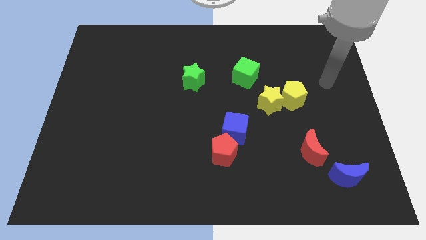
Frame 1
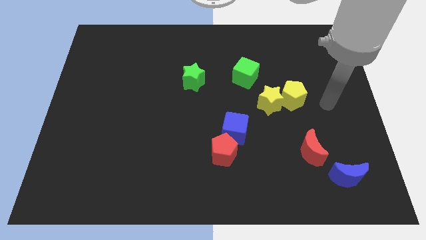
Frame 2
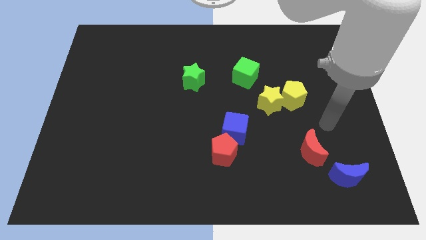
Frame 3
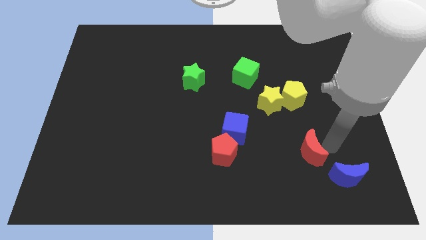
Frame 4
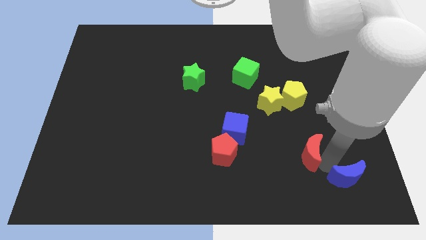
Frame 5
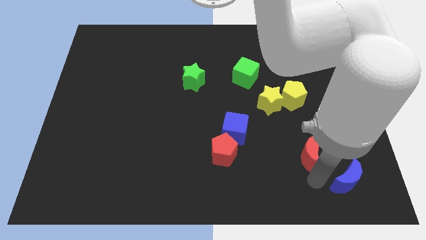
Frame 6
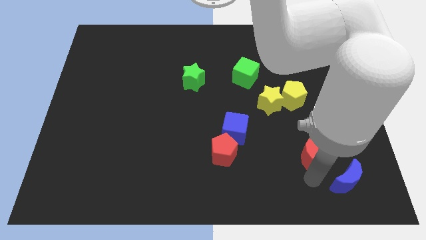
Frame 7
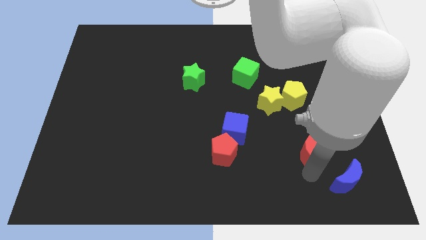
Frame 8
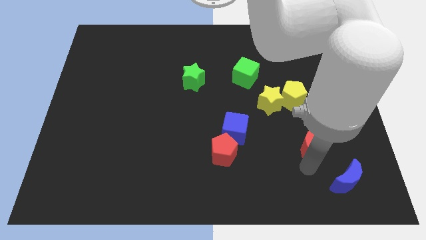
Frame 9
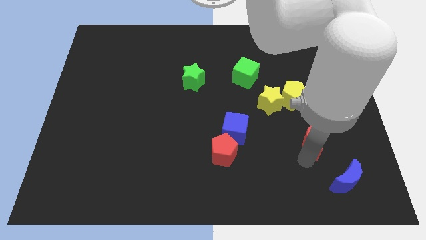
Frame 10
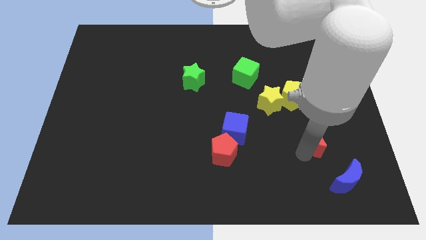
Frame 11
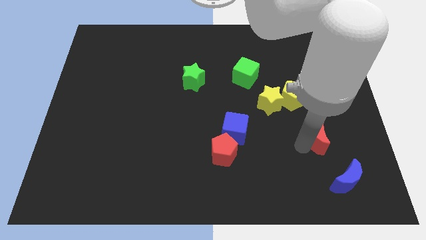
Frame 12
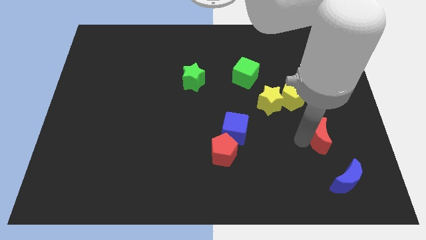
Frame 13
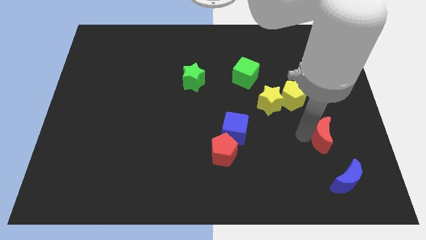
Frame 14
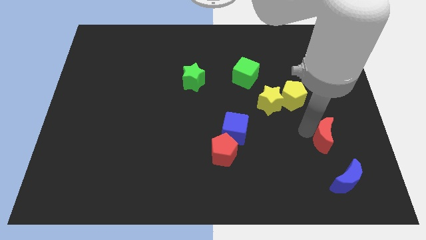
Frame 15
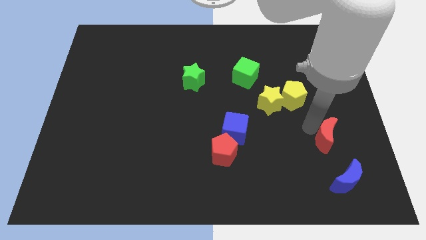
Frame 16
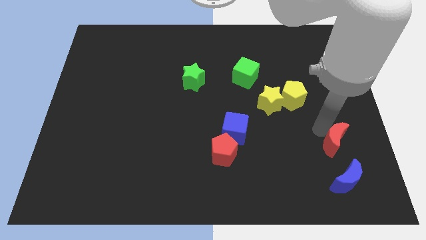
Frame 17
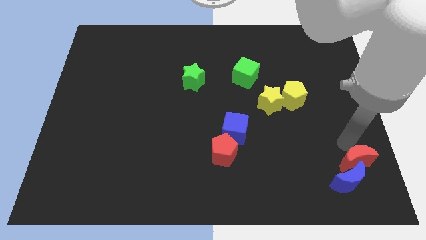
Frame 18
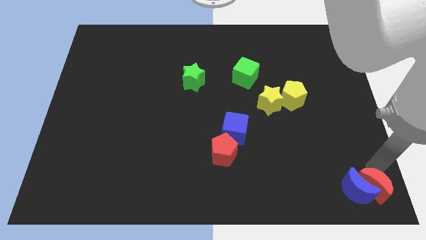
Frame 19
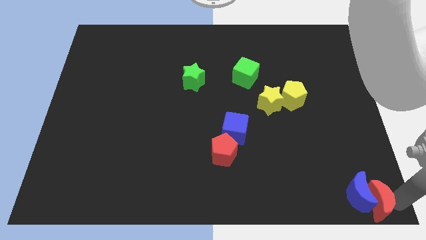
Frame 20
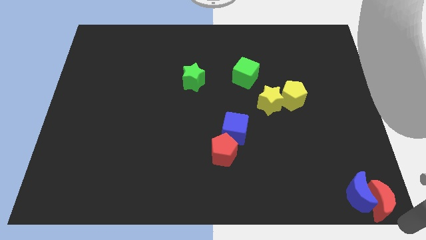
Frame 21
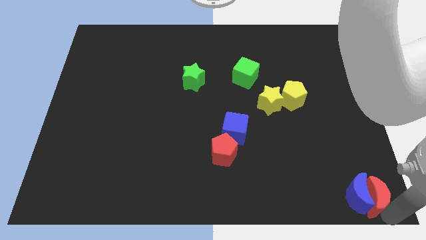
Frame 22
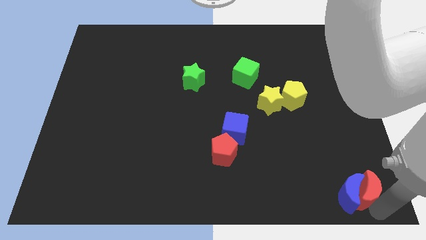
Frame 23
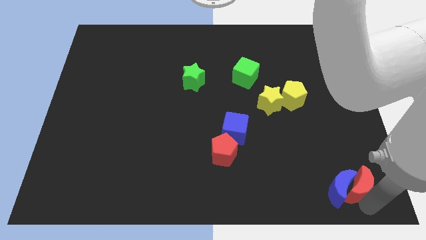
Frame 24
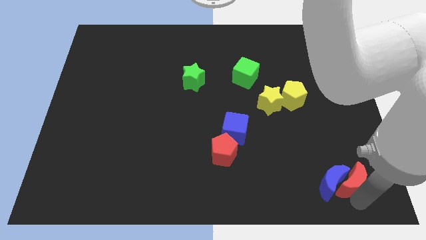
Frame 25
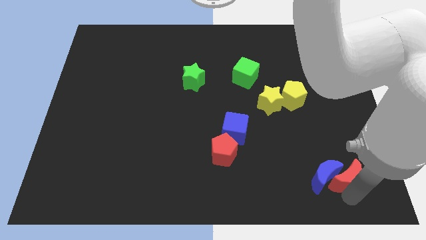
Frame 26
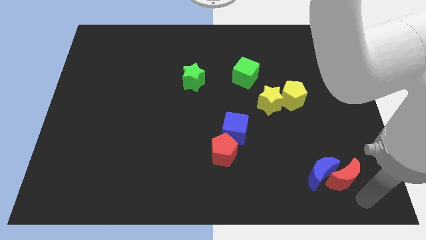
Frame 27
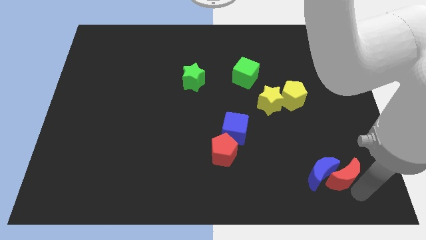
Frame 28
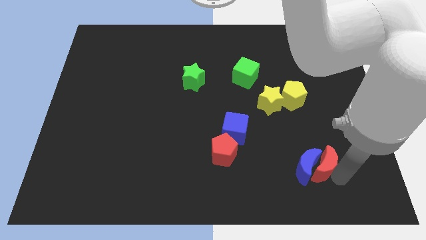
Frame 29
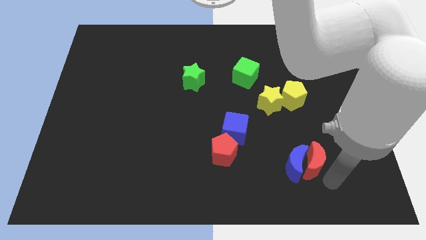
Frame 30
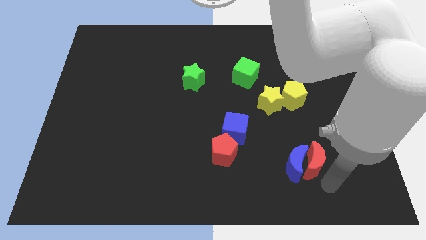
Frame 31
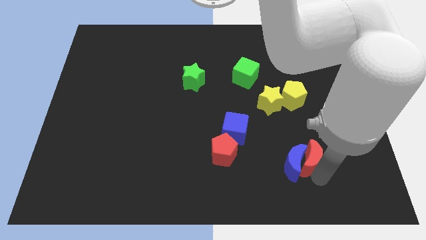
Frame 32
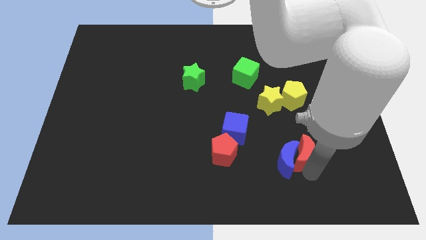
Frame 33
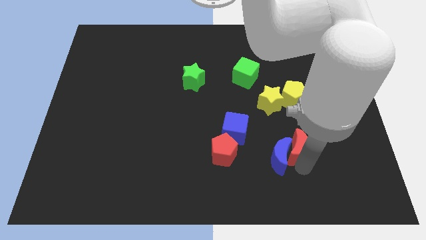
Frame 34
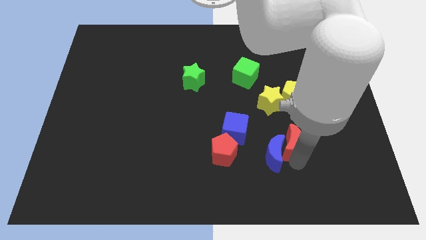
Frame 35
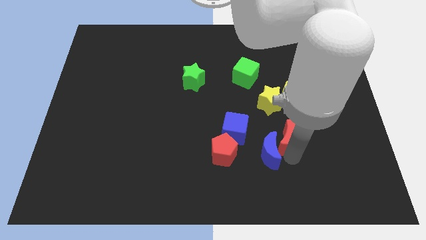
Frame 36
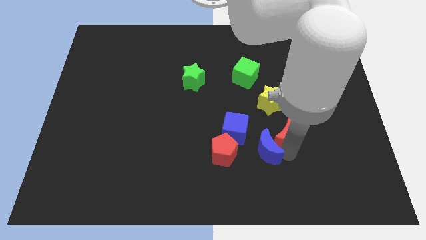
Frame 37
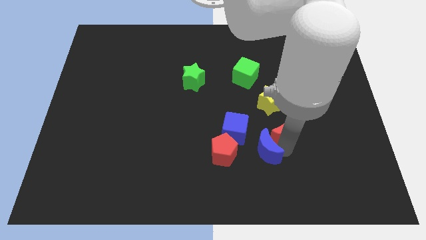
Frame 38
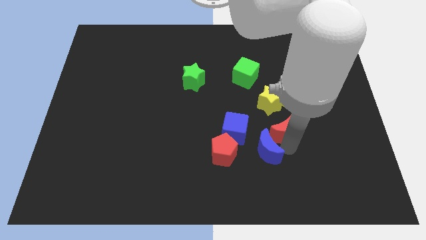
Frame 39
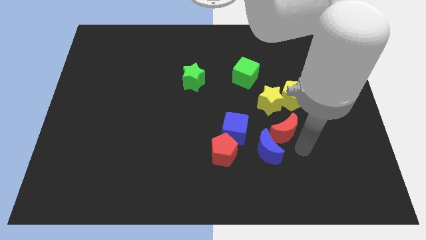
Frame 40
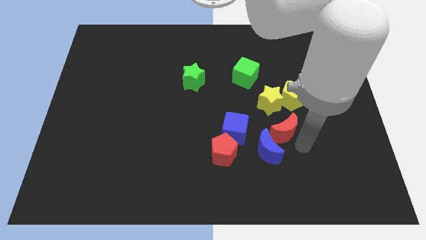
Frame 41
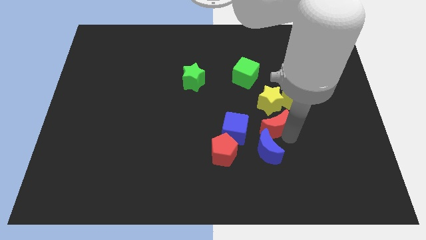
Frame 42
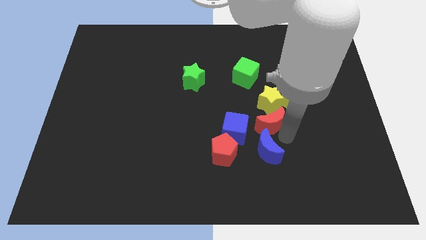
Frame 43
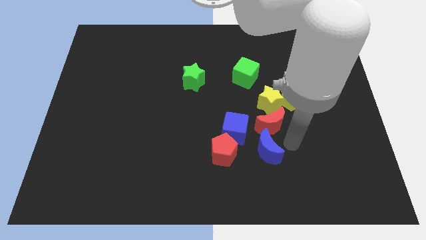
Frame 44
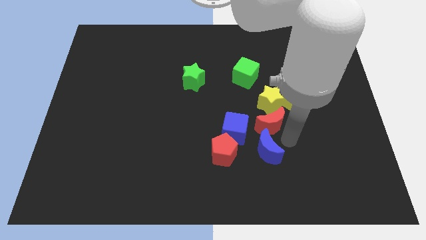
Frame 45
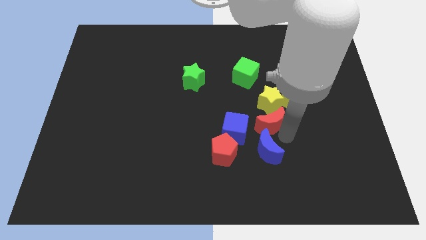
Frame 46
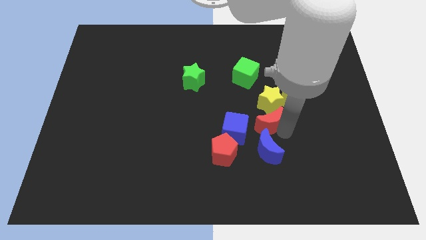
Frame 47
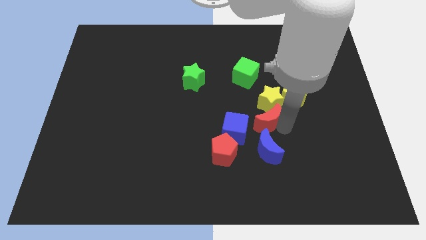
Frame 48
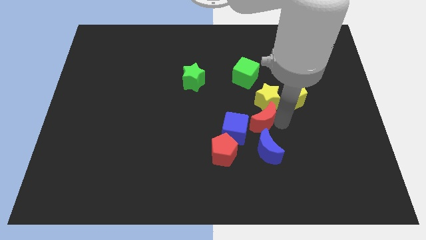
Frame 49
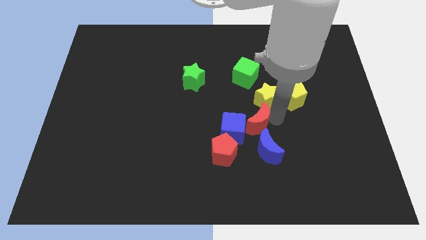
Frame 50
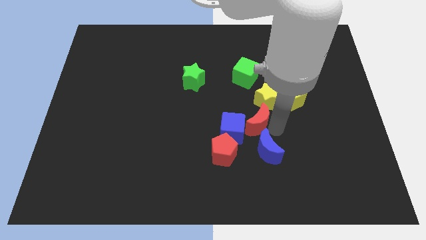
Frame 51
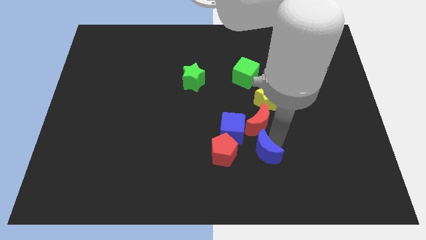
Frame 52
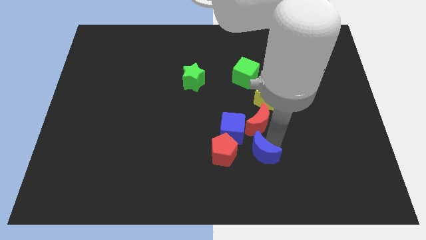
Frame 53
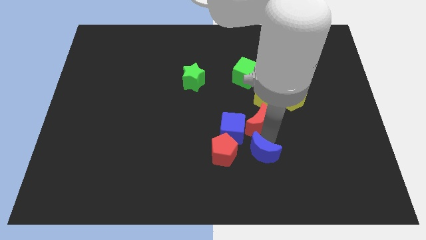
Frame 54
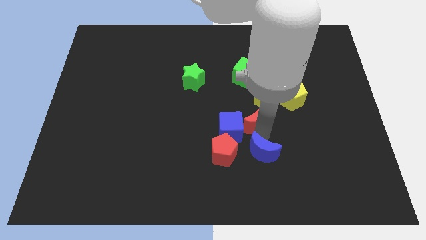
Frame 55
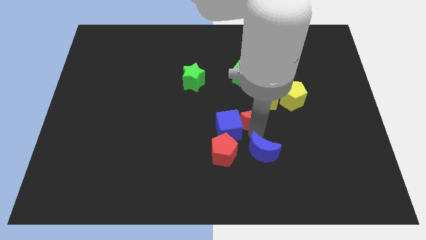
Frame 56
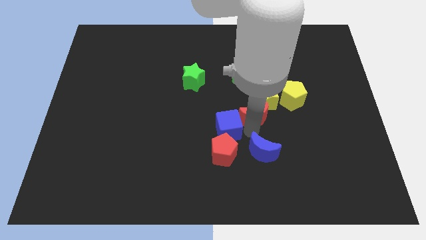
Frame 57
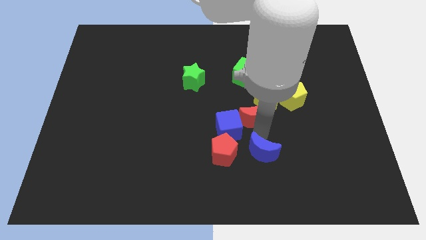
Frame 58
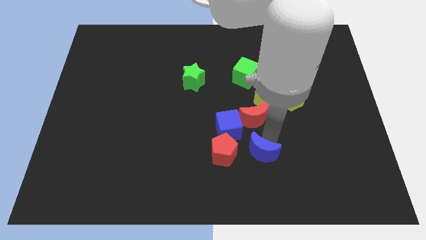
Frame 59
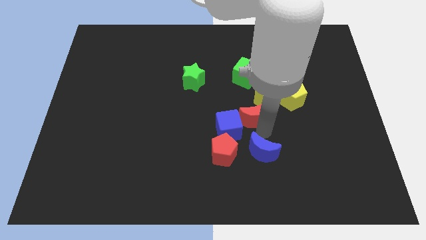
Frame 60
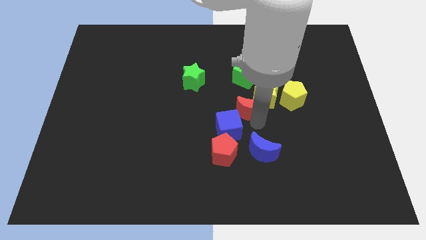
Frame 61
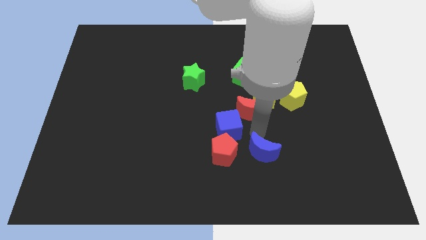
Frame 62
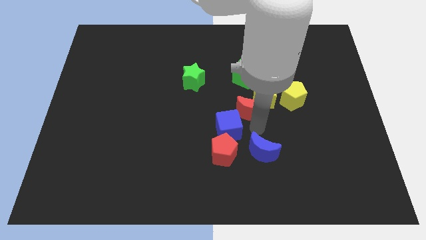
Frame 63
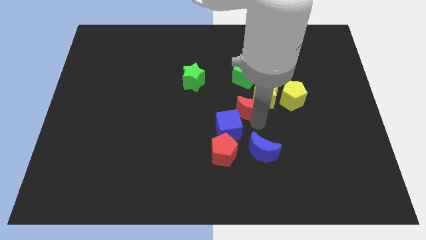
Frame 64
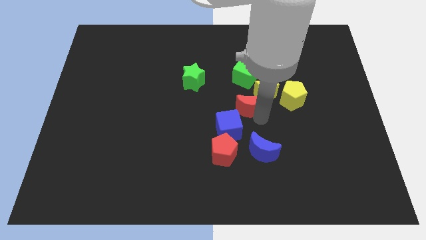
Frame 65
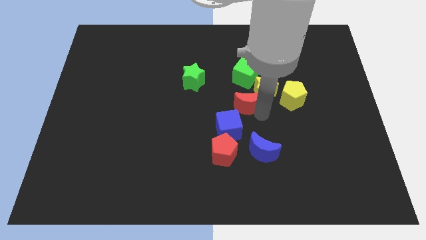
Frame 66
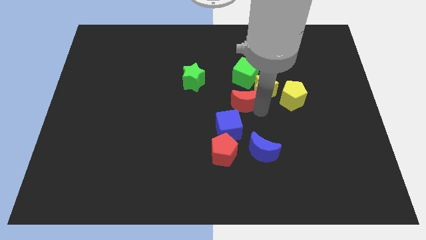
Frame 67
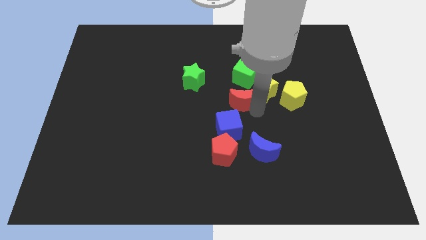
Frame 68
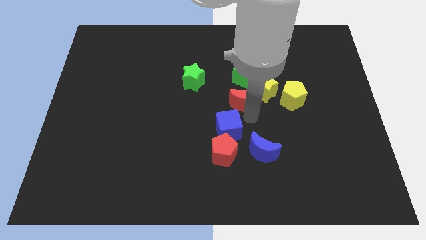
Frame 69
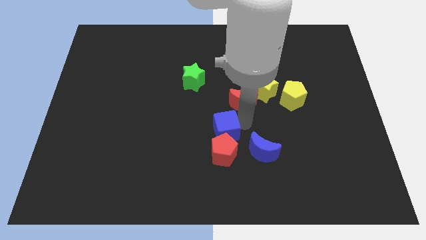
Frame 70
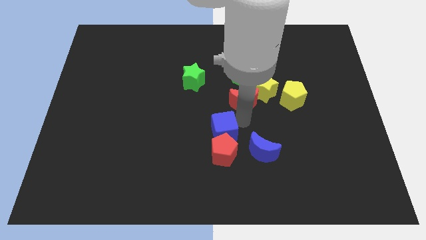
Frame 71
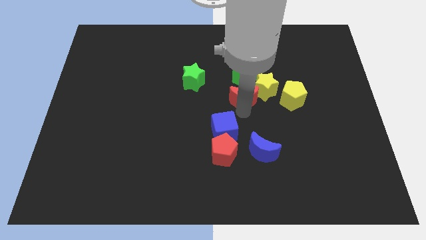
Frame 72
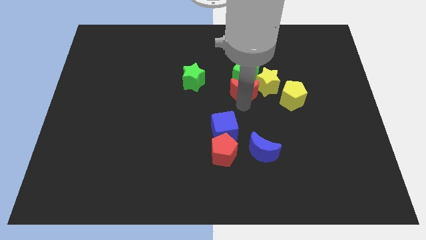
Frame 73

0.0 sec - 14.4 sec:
put the red moon to the green cube
